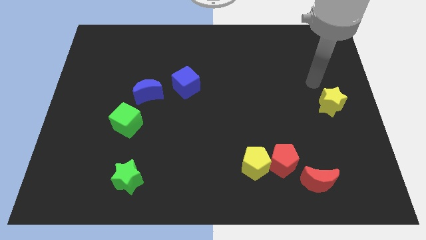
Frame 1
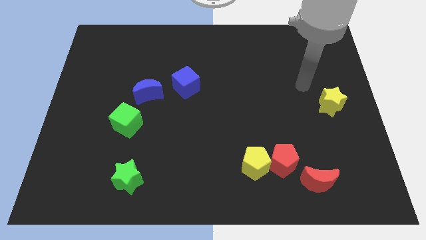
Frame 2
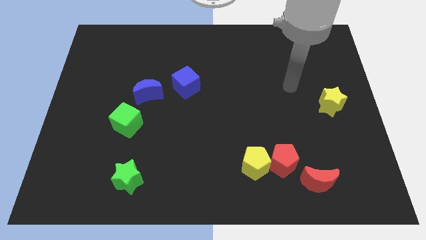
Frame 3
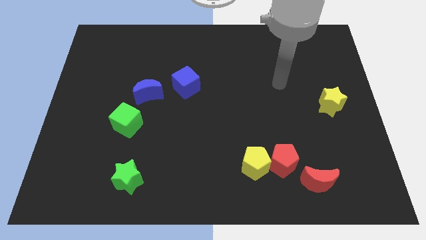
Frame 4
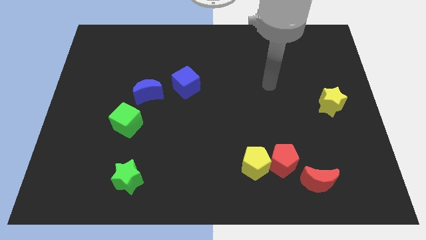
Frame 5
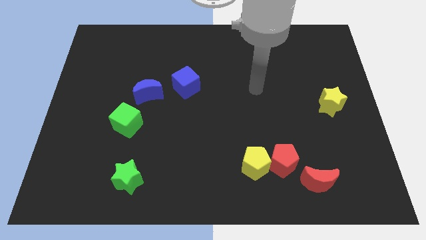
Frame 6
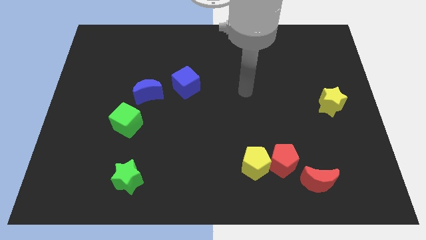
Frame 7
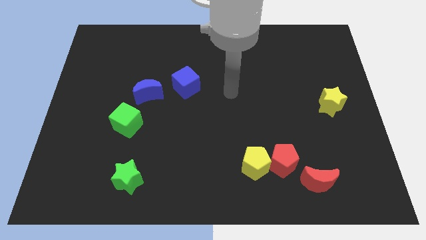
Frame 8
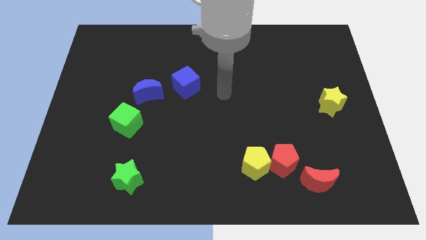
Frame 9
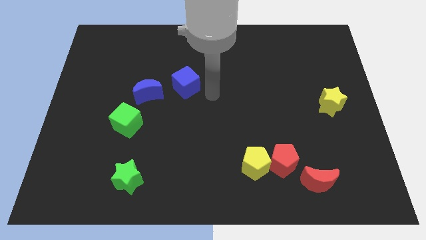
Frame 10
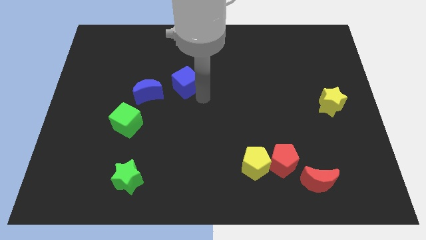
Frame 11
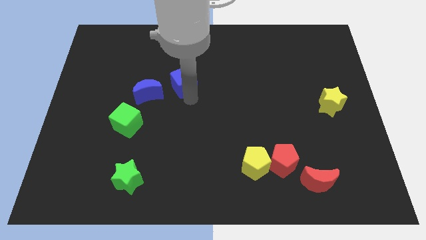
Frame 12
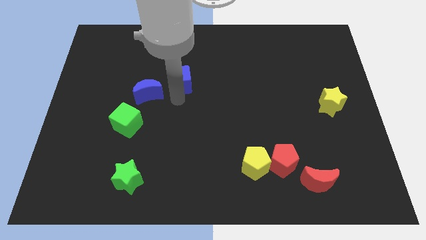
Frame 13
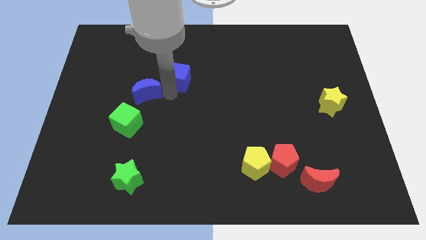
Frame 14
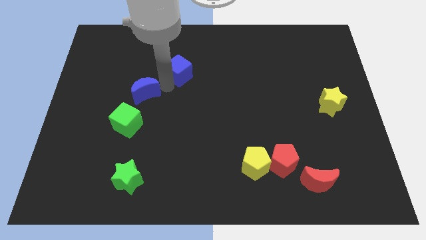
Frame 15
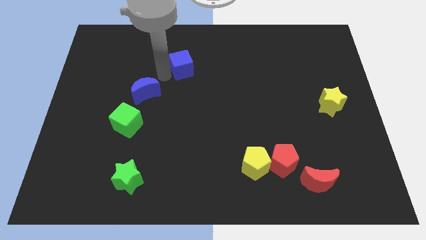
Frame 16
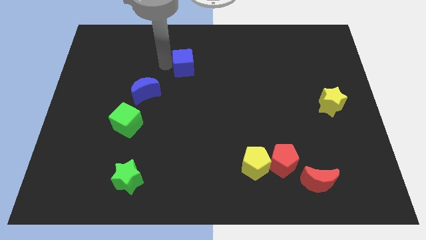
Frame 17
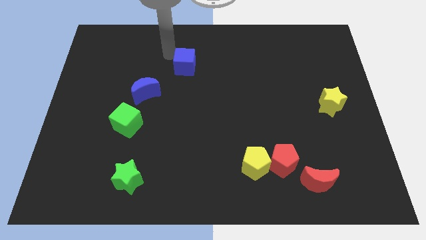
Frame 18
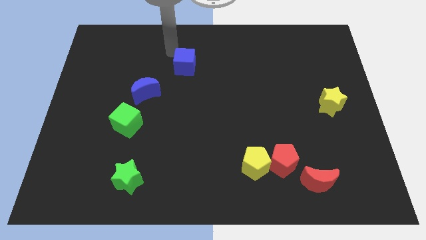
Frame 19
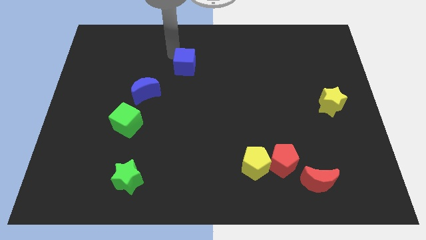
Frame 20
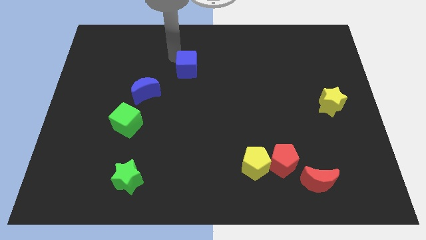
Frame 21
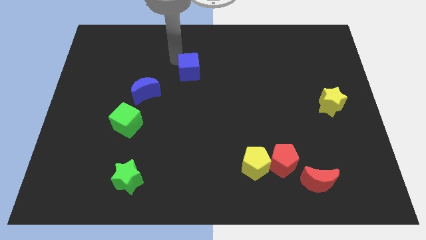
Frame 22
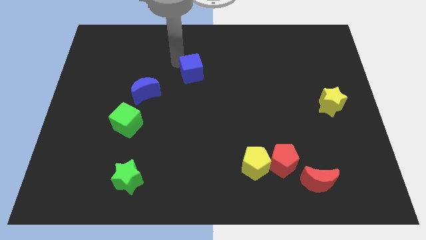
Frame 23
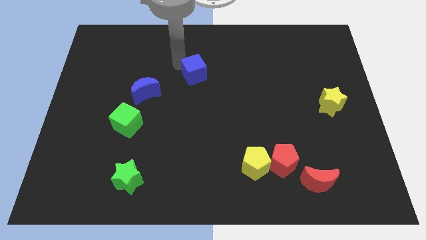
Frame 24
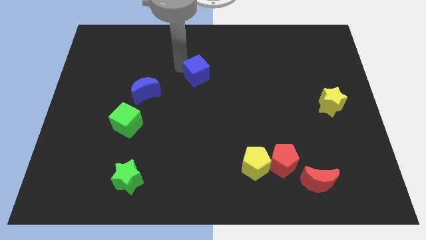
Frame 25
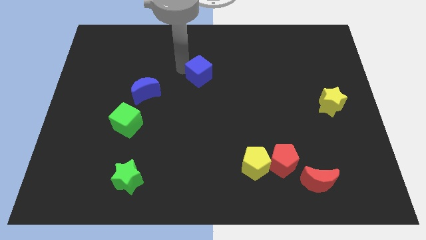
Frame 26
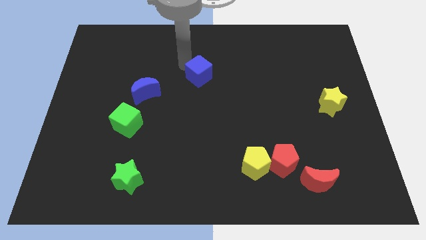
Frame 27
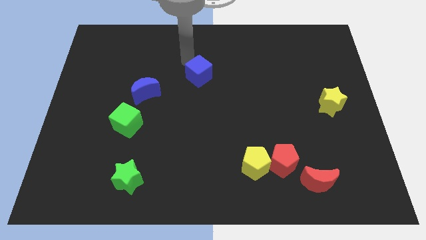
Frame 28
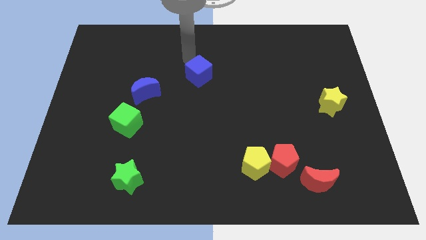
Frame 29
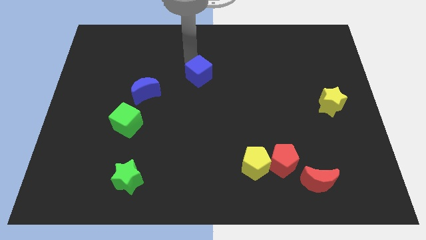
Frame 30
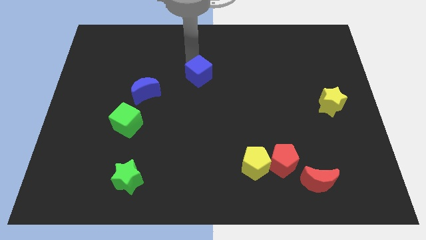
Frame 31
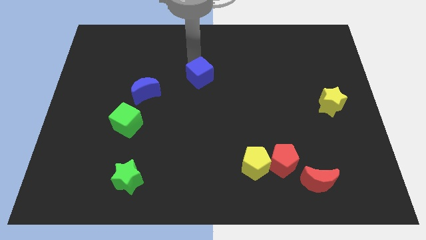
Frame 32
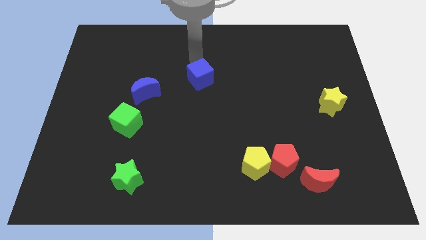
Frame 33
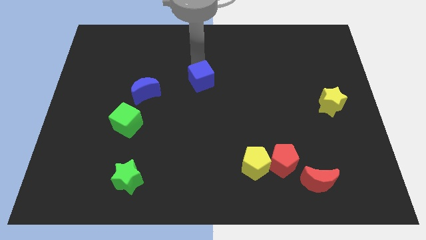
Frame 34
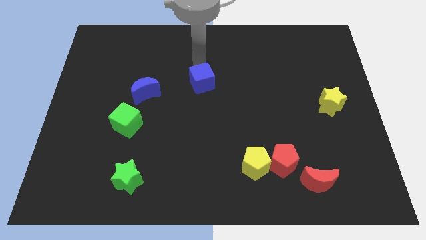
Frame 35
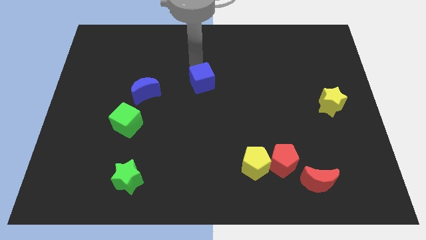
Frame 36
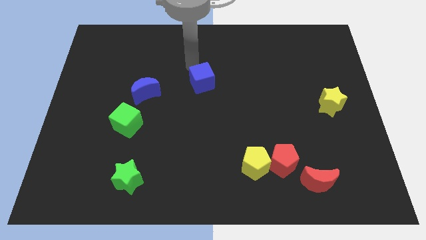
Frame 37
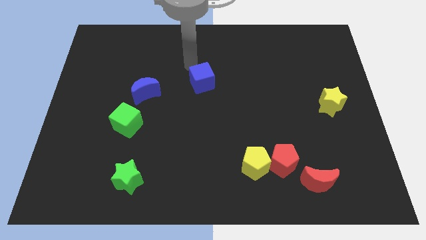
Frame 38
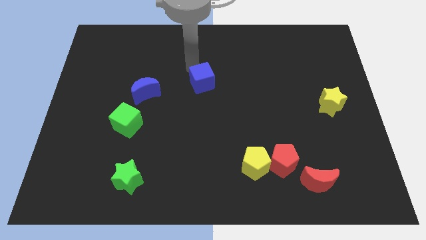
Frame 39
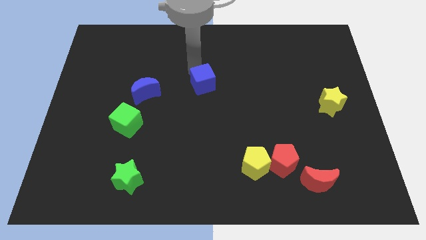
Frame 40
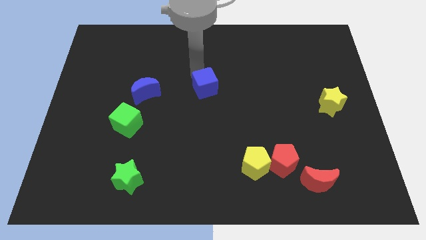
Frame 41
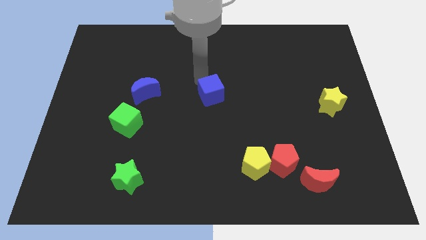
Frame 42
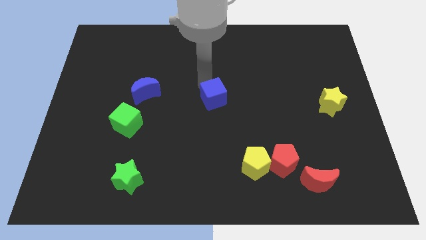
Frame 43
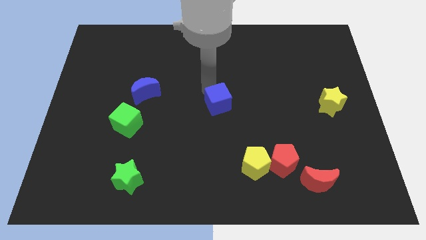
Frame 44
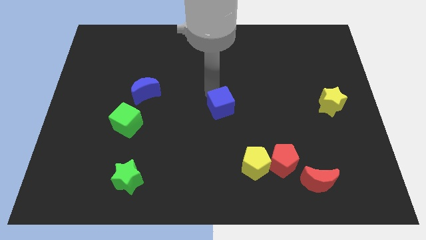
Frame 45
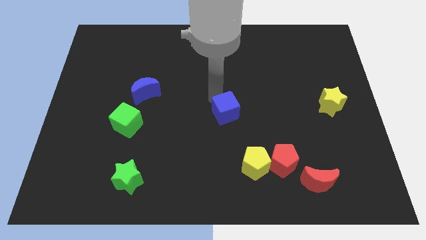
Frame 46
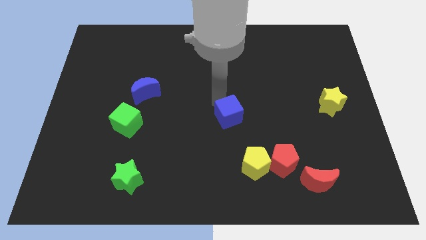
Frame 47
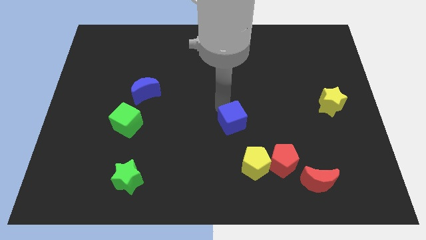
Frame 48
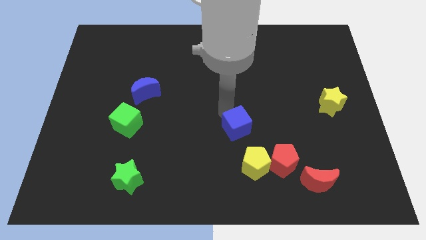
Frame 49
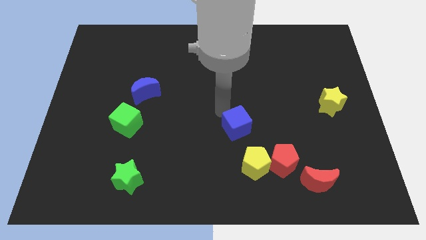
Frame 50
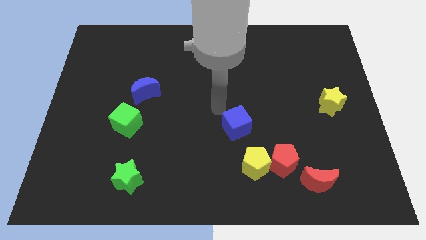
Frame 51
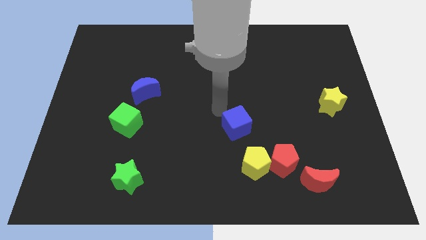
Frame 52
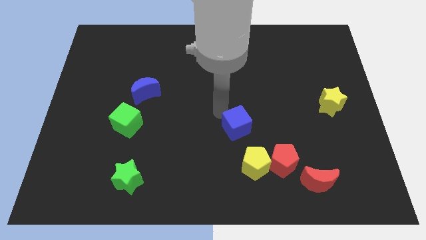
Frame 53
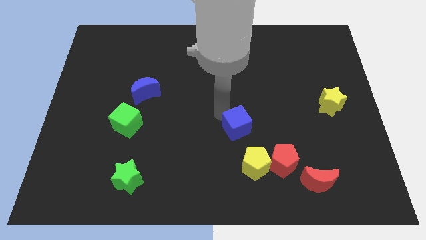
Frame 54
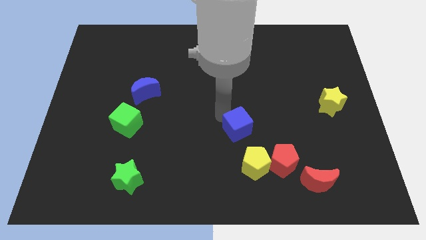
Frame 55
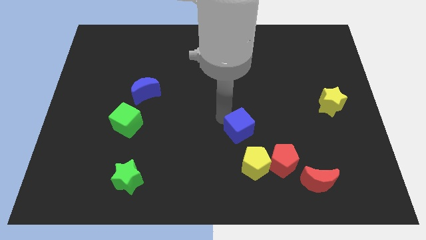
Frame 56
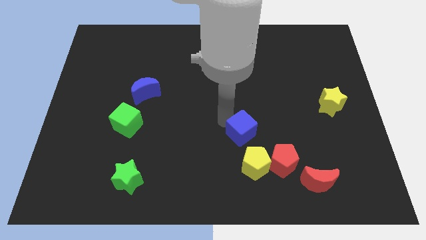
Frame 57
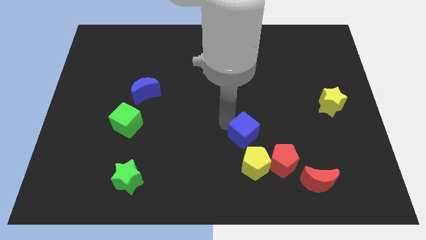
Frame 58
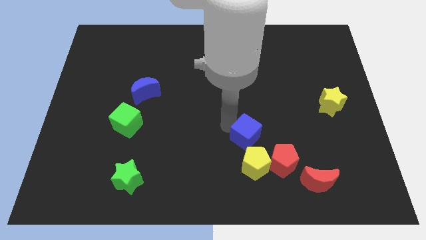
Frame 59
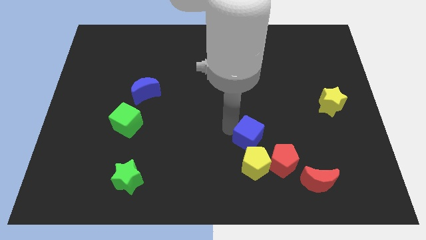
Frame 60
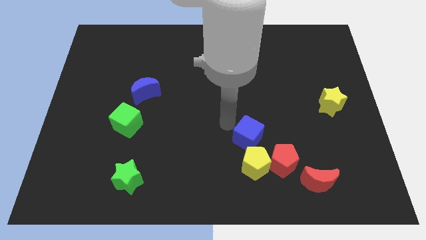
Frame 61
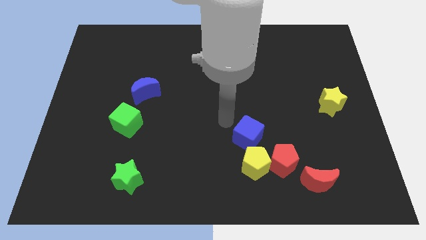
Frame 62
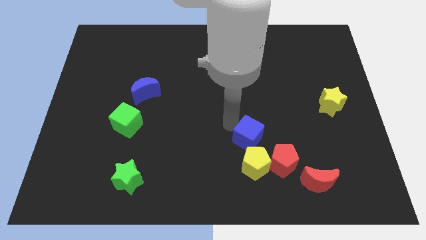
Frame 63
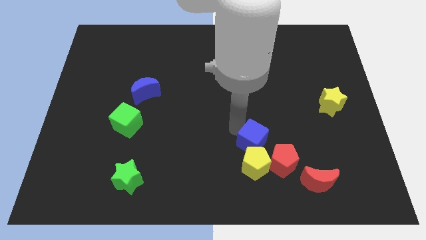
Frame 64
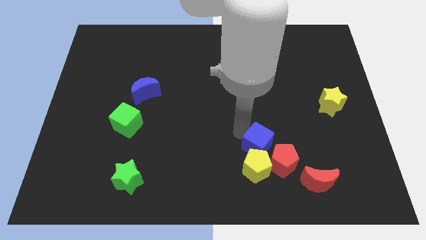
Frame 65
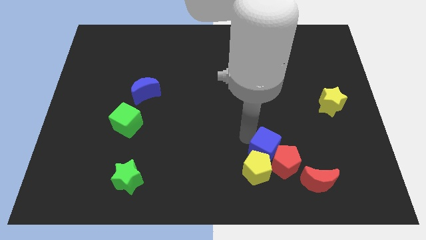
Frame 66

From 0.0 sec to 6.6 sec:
slide the blue cube close to the red pentagon

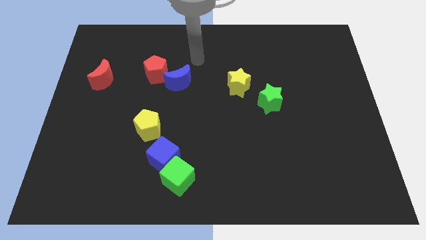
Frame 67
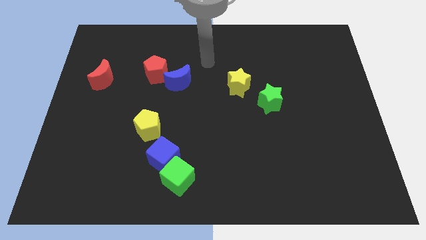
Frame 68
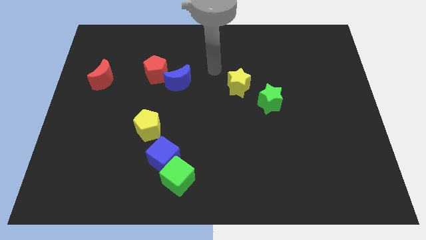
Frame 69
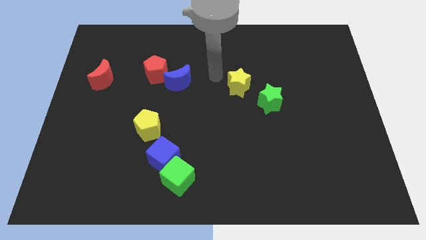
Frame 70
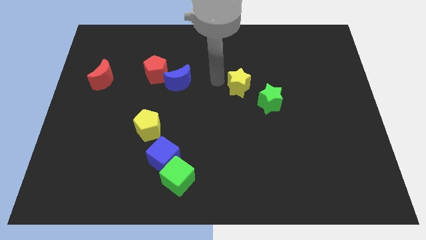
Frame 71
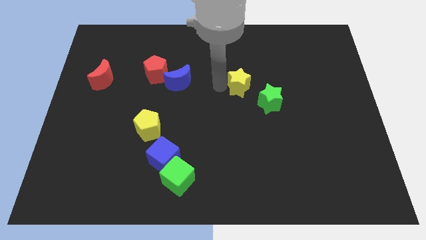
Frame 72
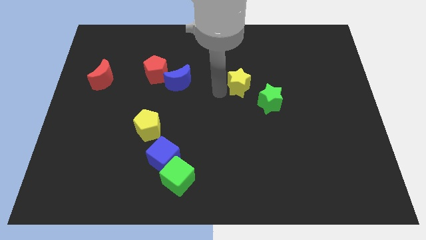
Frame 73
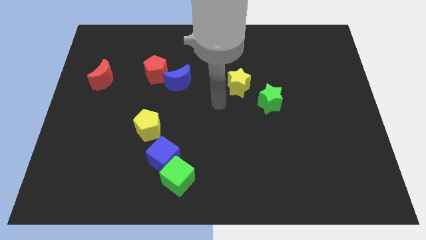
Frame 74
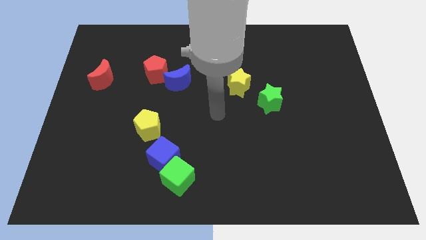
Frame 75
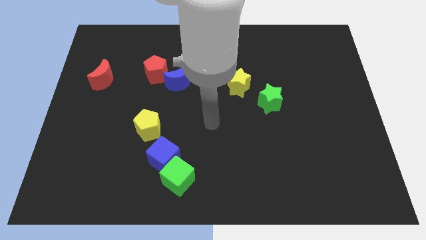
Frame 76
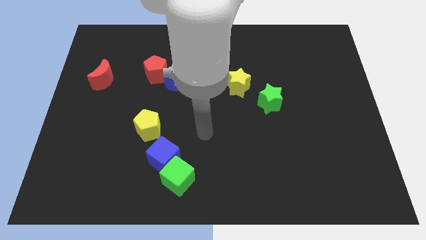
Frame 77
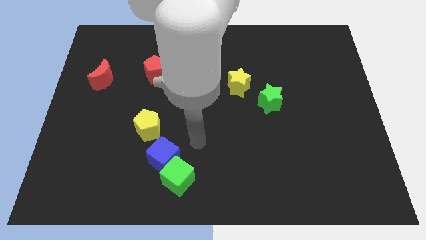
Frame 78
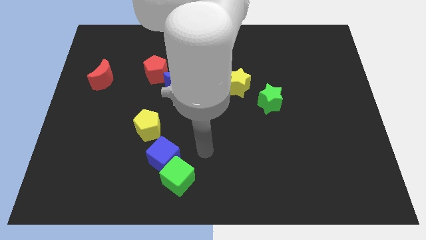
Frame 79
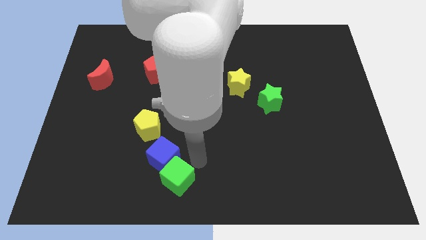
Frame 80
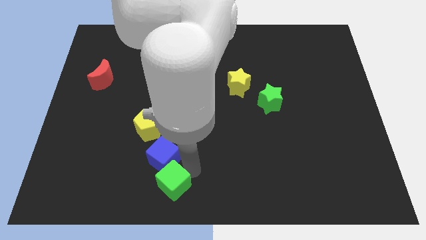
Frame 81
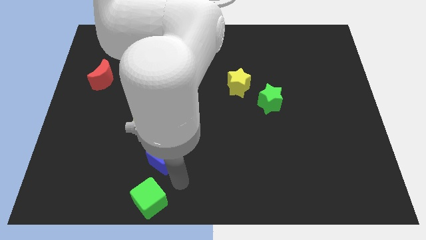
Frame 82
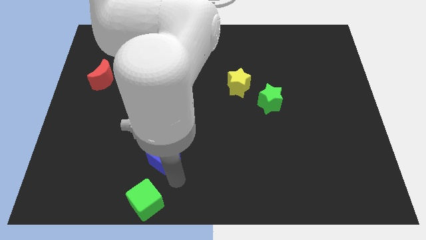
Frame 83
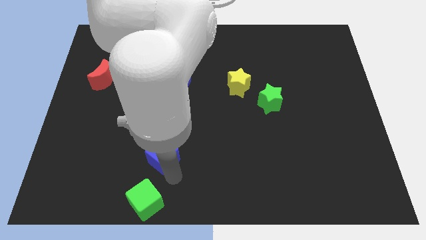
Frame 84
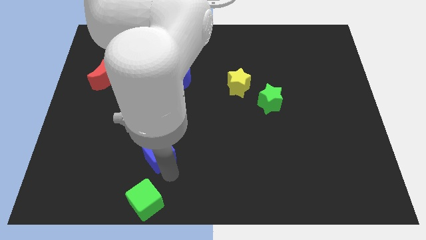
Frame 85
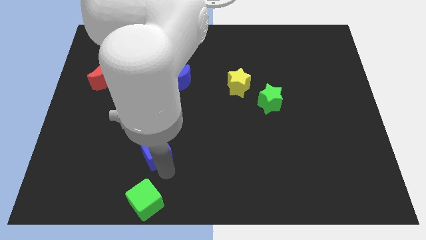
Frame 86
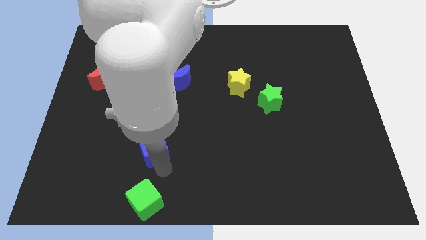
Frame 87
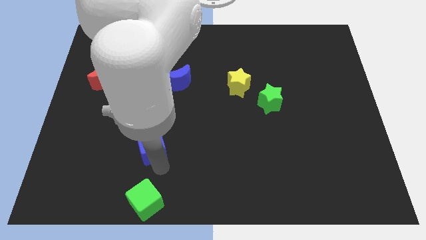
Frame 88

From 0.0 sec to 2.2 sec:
slide the blue cube towards the yellow pentagon
